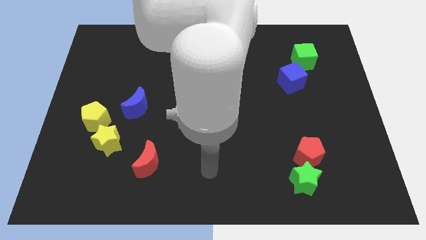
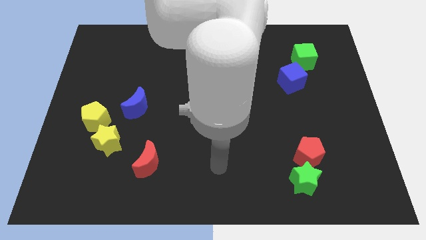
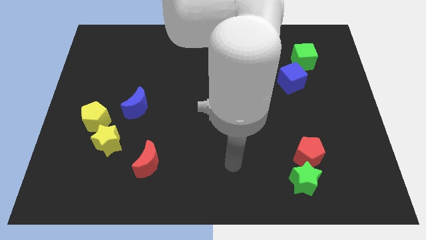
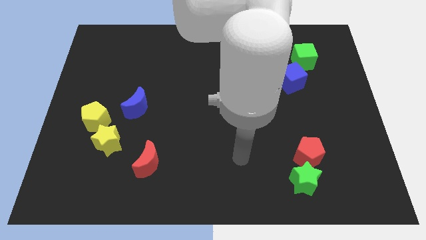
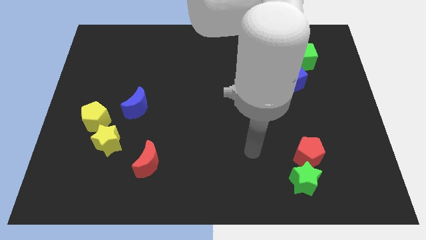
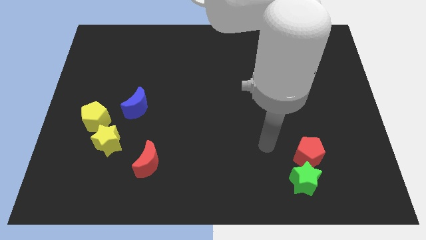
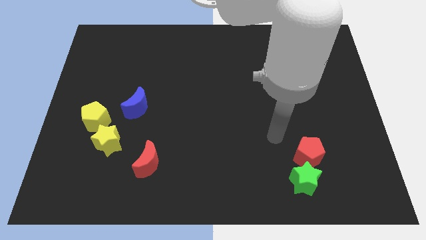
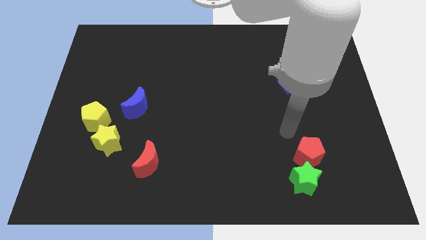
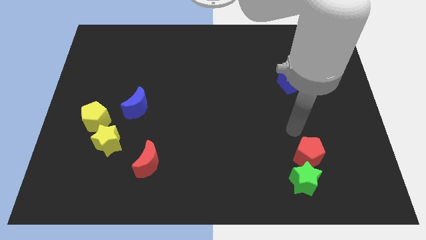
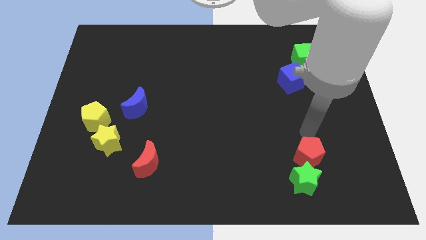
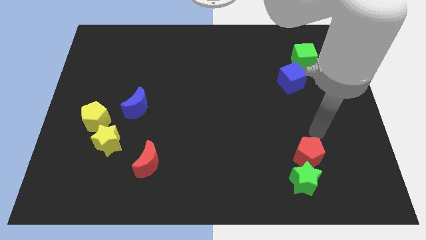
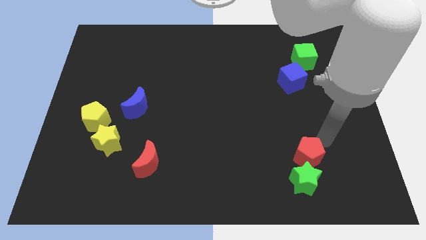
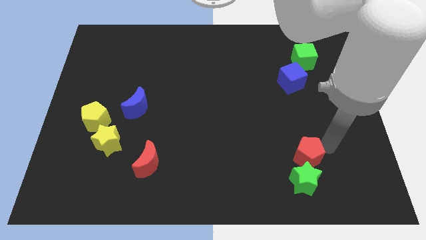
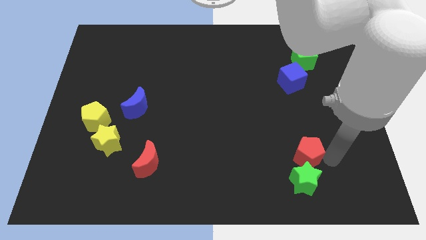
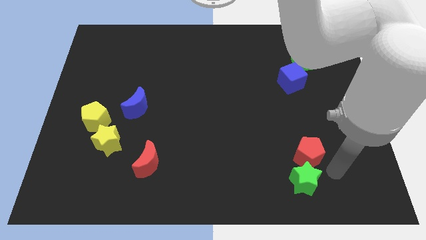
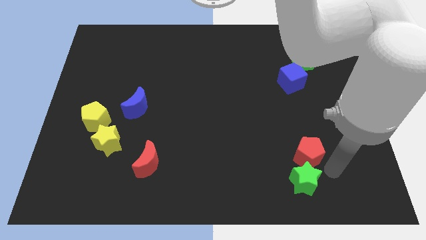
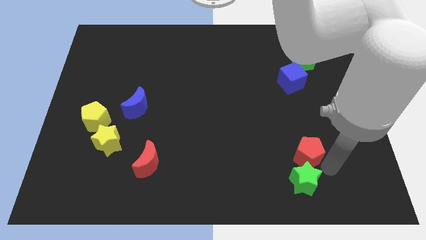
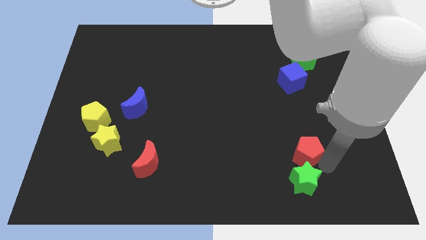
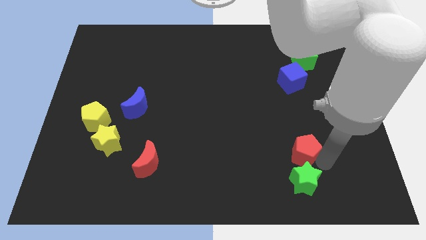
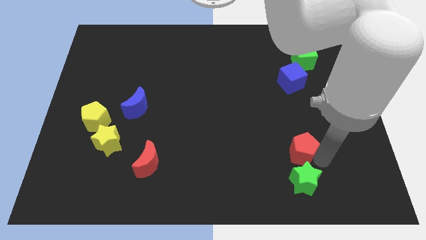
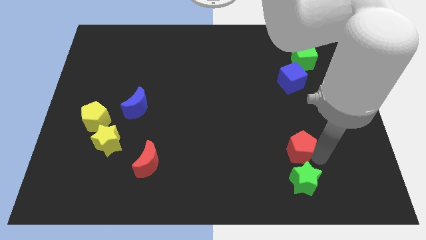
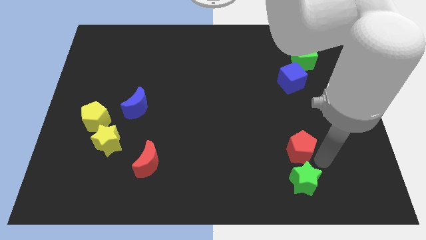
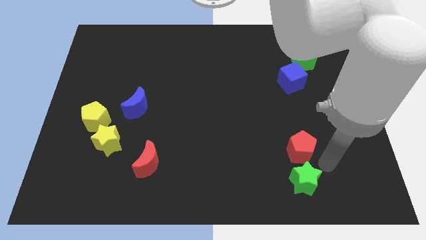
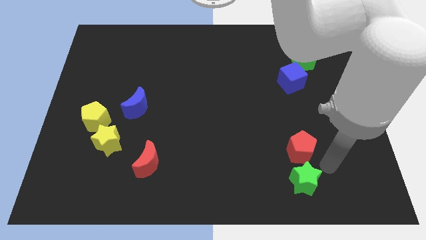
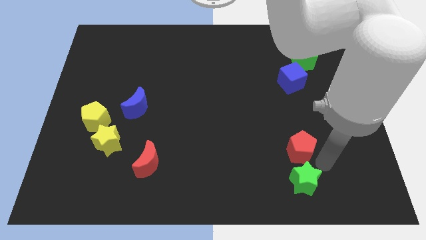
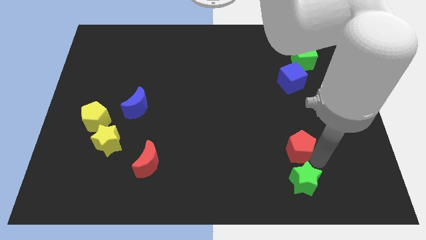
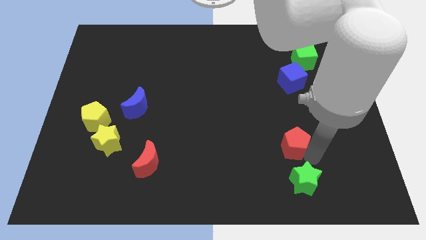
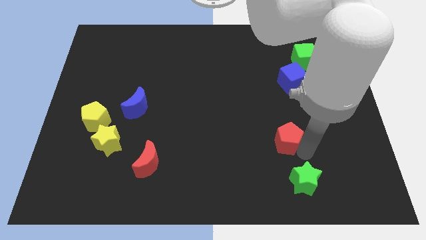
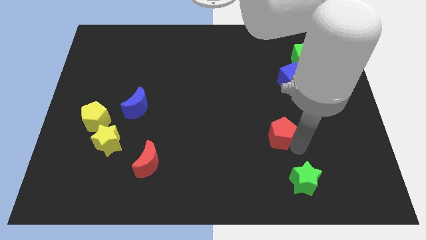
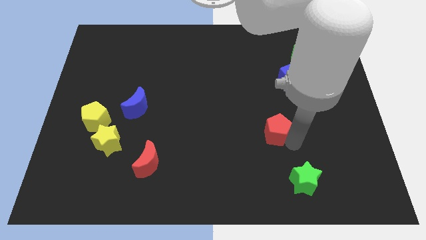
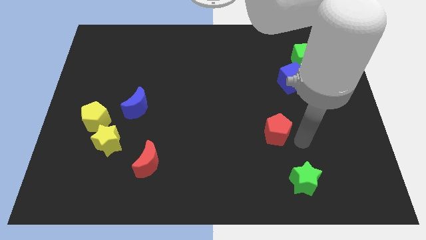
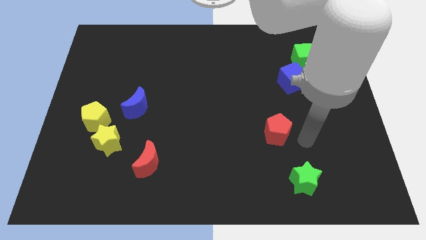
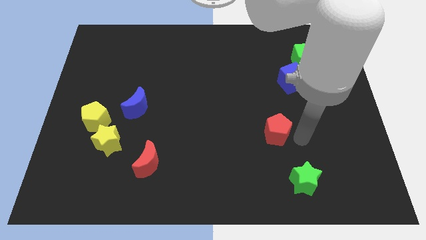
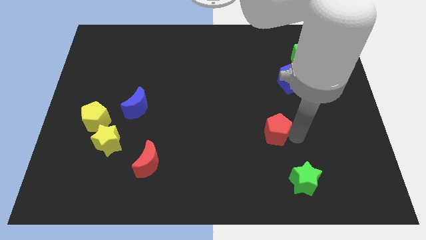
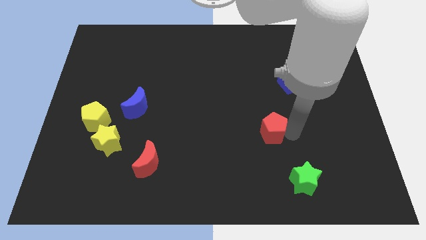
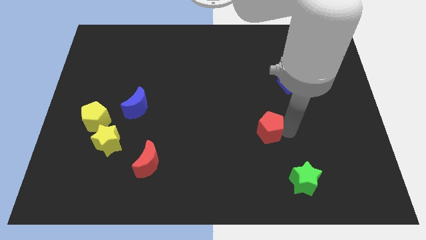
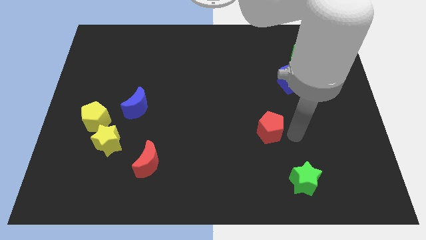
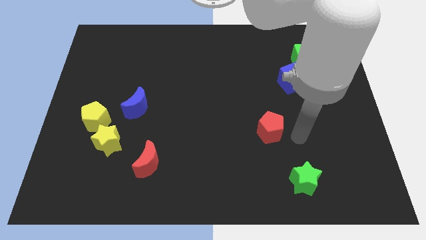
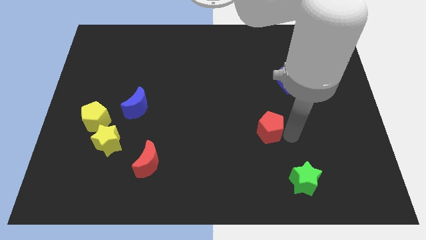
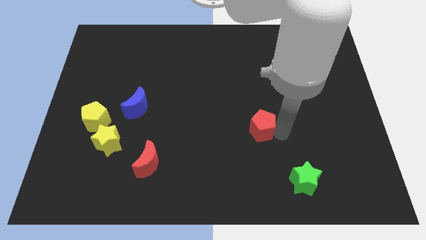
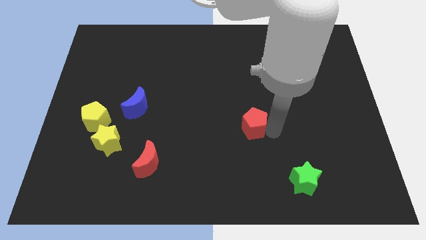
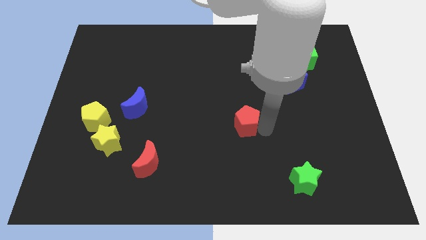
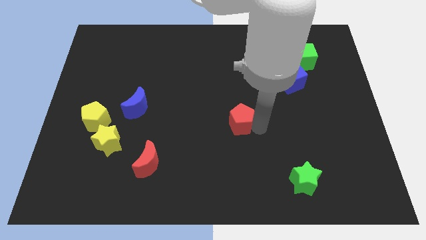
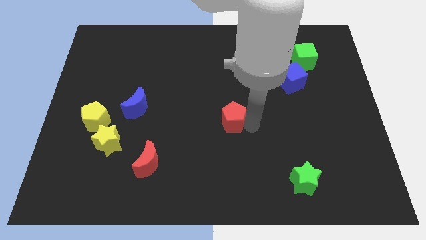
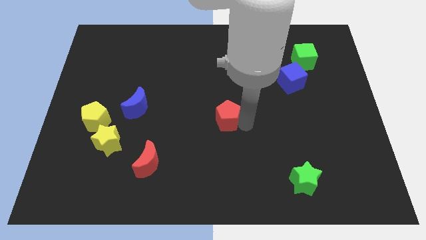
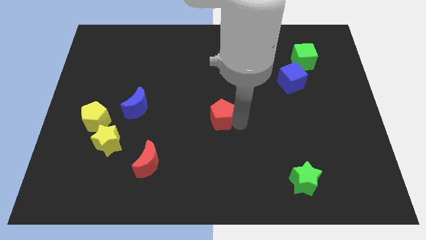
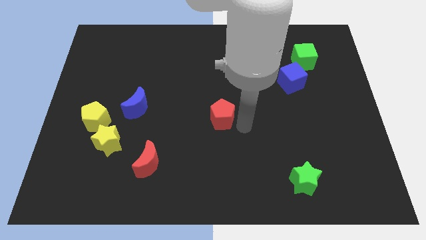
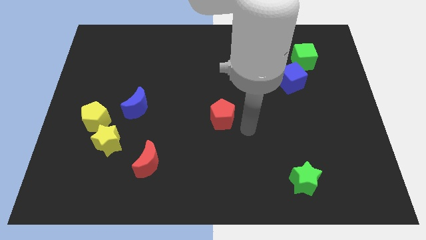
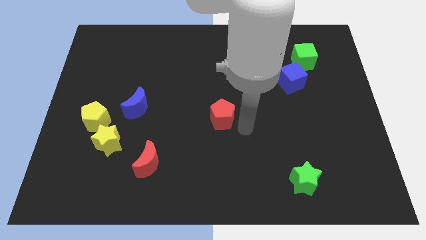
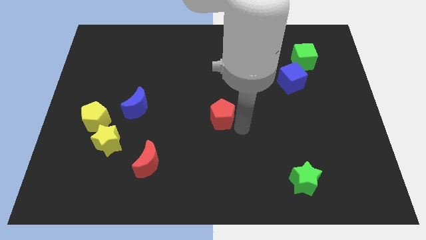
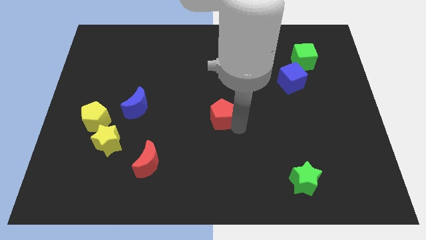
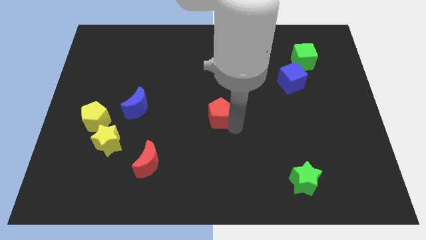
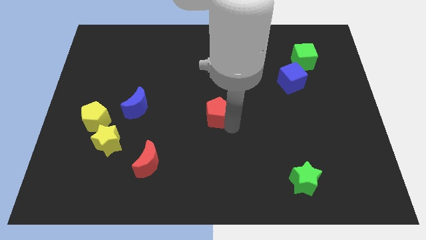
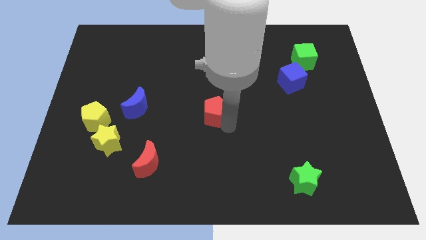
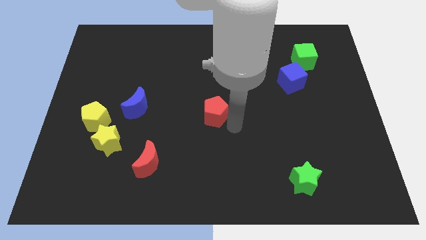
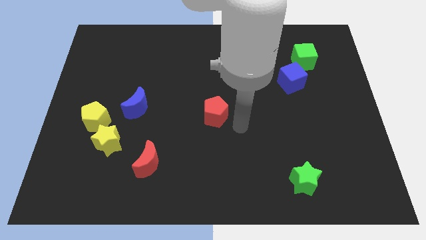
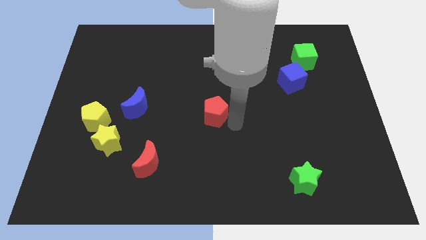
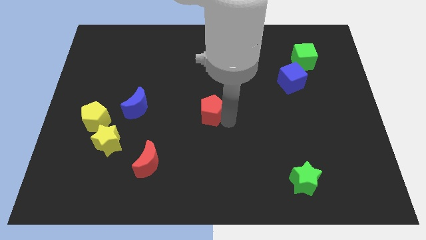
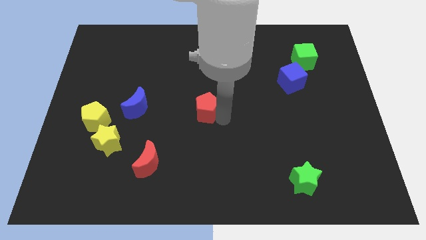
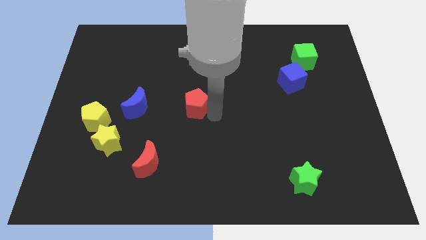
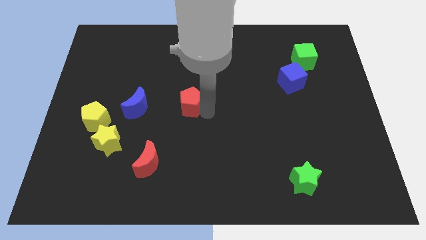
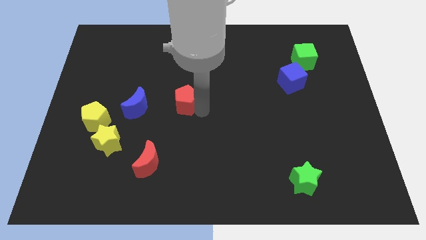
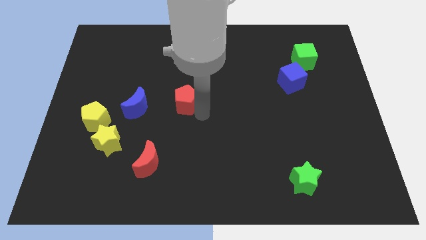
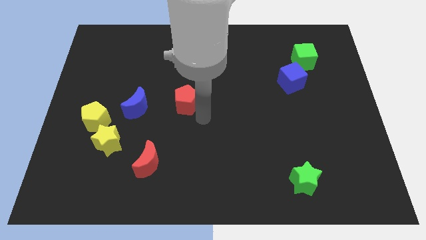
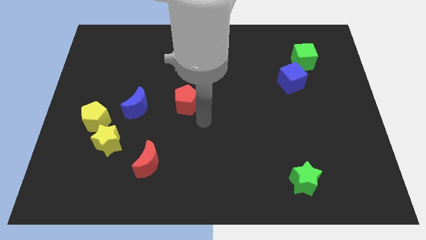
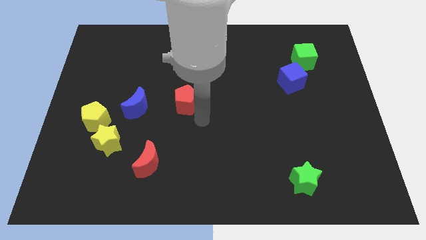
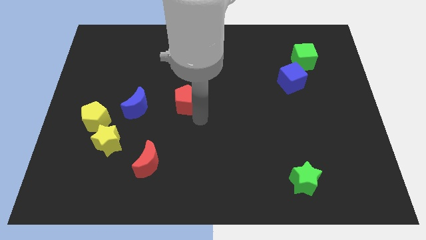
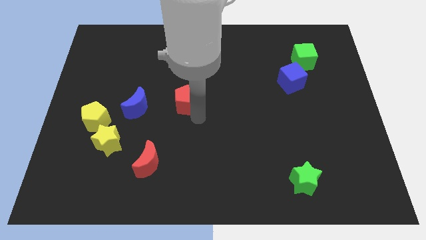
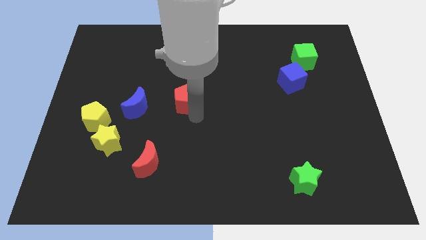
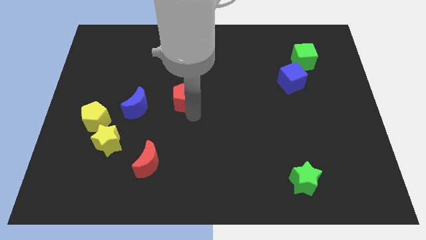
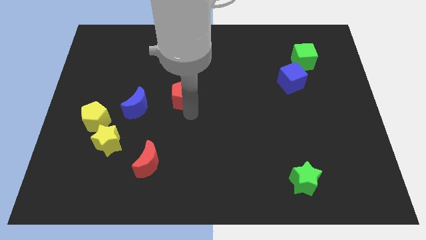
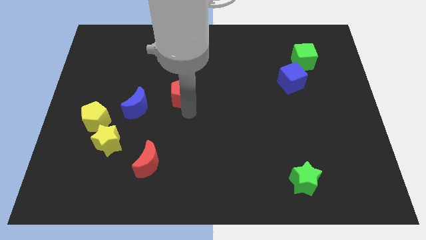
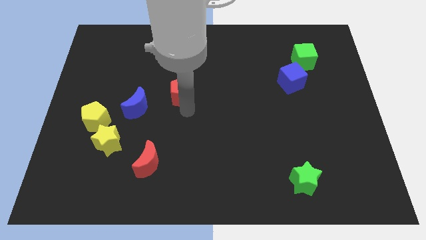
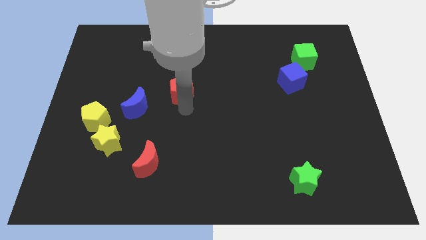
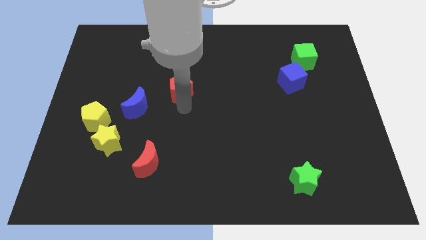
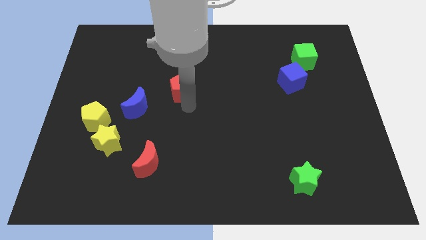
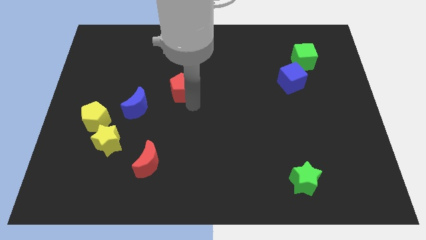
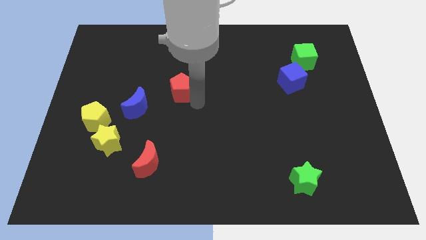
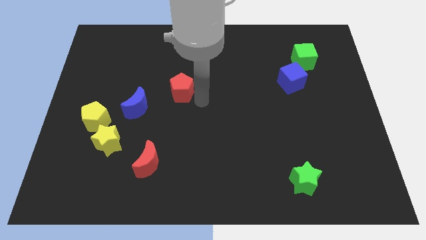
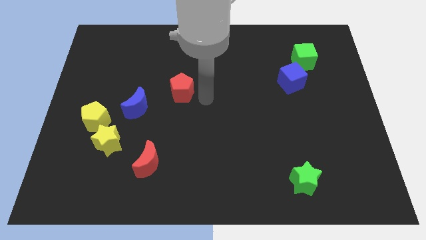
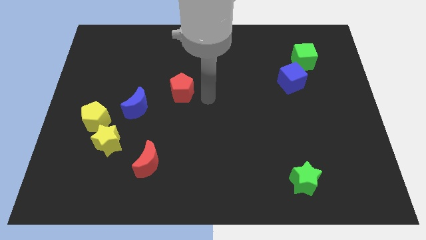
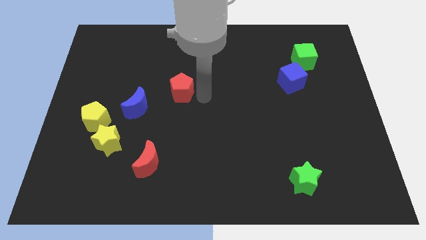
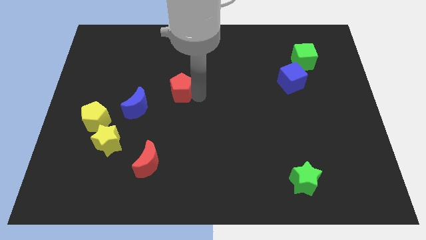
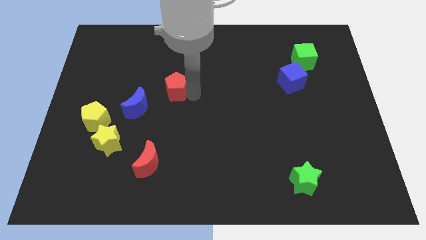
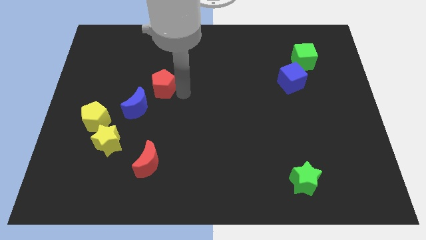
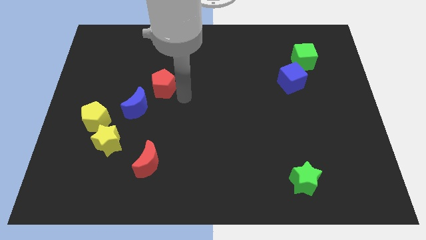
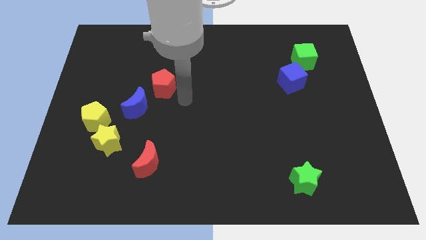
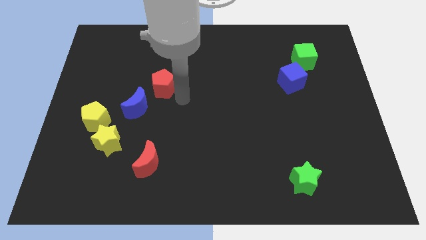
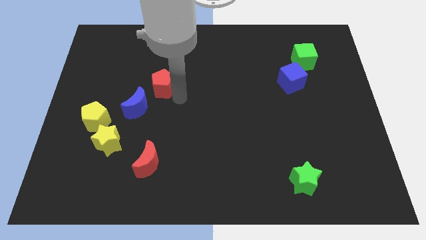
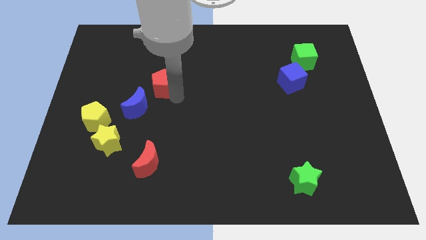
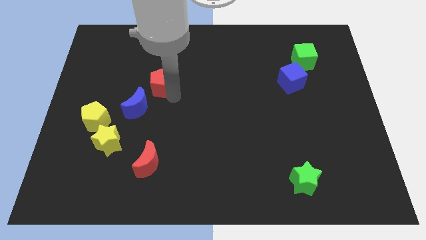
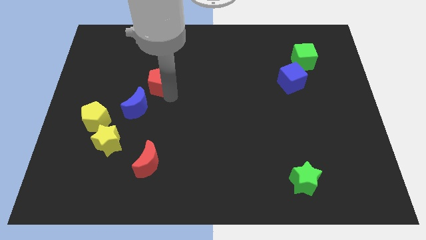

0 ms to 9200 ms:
put the red pentagon above the blue moon
